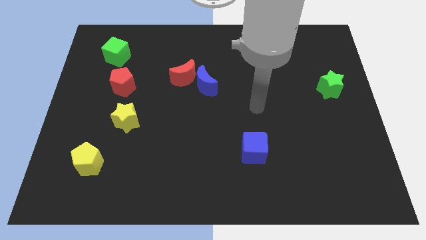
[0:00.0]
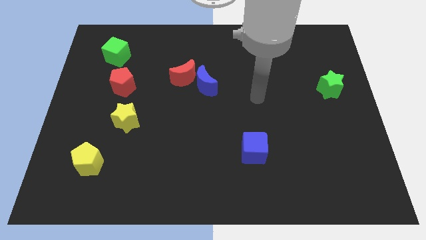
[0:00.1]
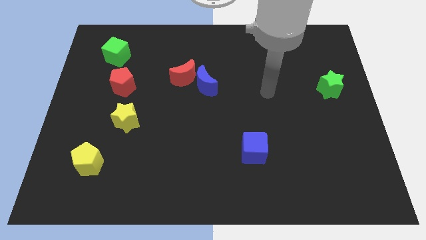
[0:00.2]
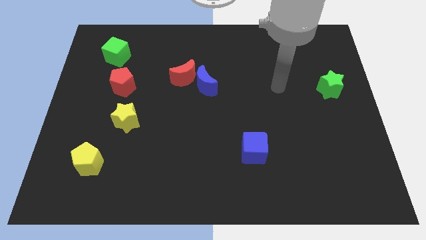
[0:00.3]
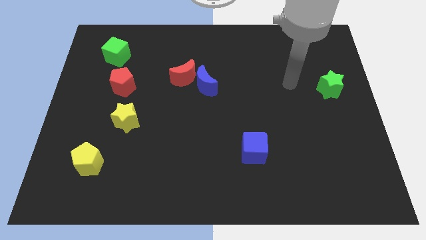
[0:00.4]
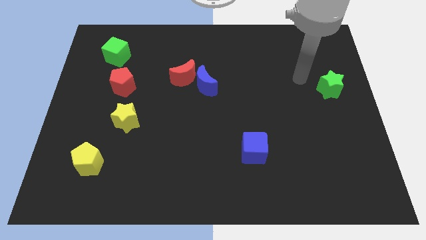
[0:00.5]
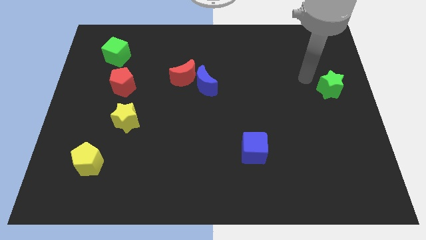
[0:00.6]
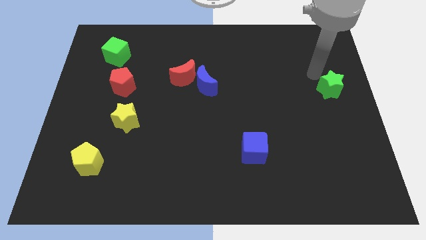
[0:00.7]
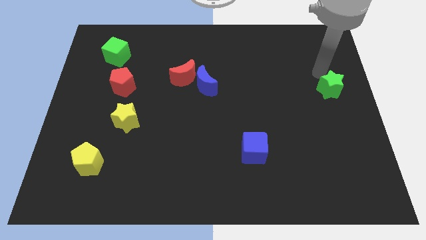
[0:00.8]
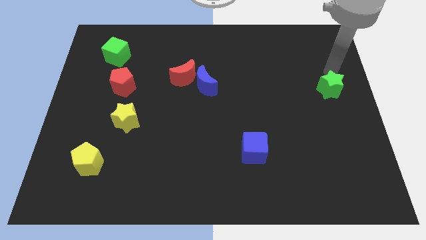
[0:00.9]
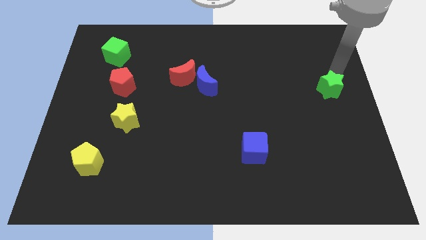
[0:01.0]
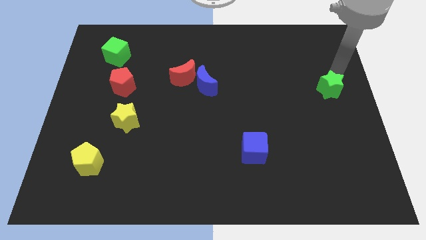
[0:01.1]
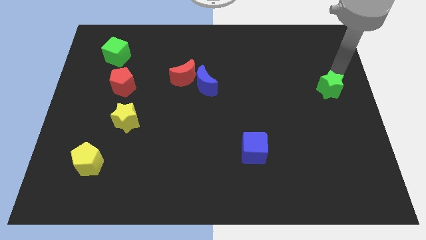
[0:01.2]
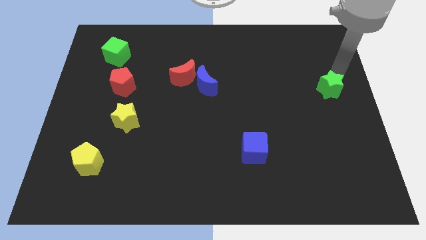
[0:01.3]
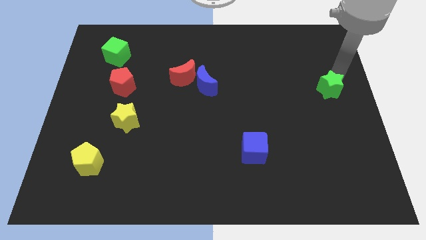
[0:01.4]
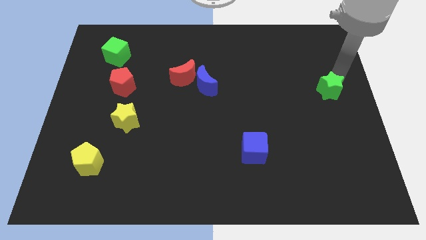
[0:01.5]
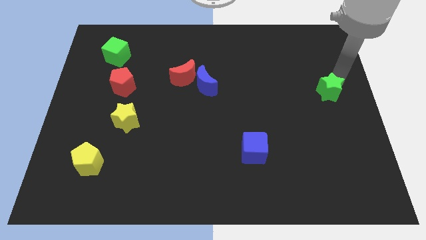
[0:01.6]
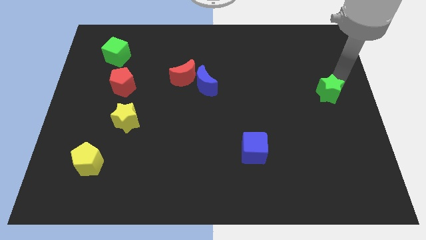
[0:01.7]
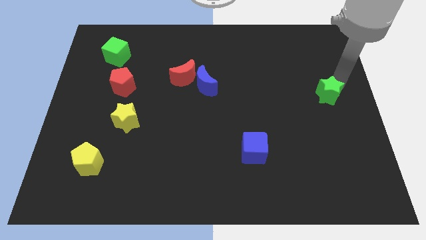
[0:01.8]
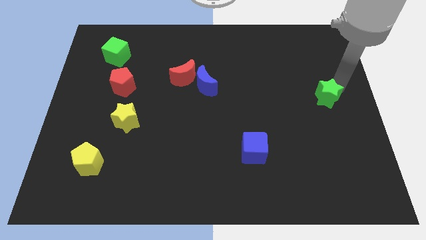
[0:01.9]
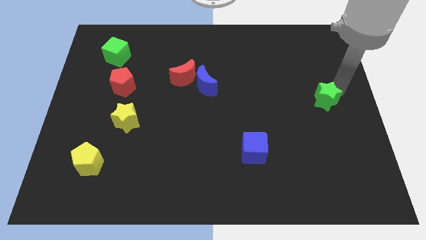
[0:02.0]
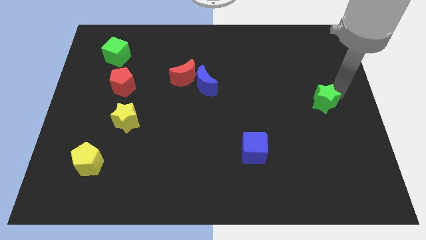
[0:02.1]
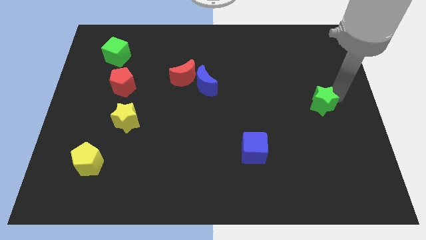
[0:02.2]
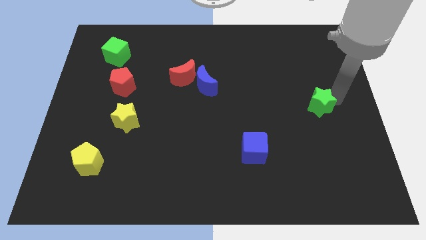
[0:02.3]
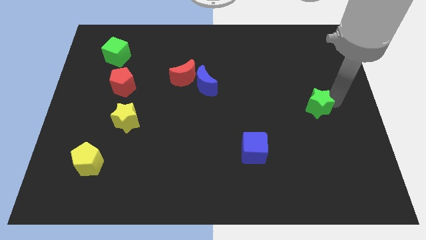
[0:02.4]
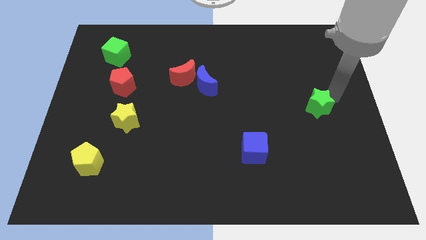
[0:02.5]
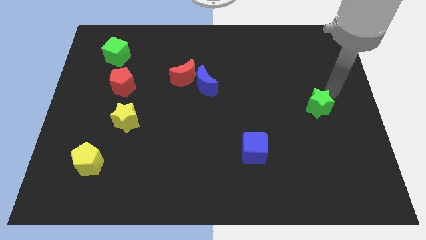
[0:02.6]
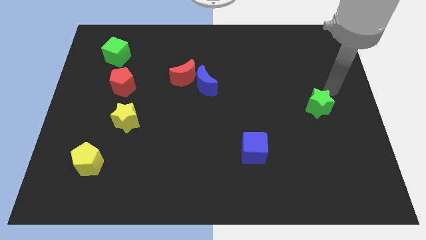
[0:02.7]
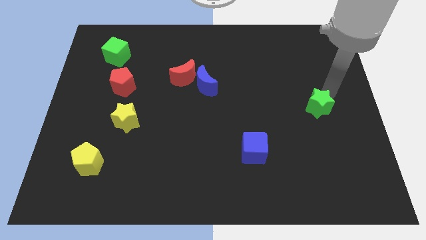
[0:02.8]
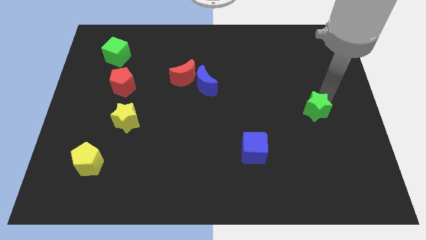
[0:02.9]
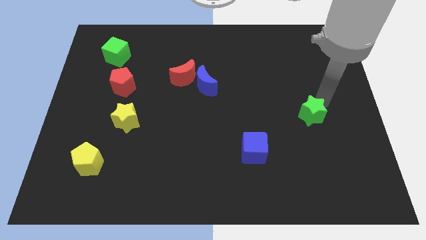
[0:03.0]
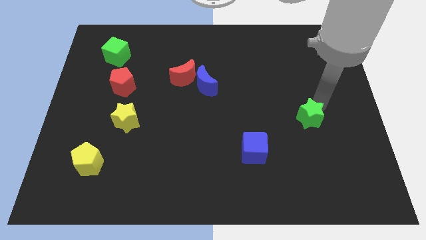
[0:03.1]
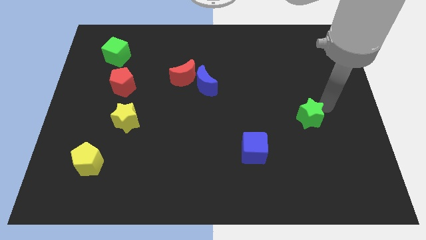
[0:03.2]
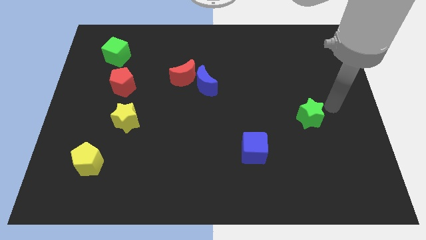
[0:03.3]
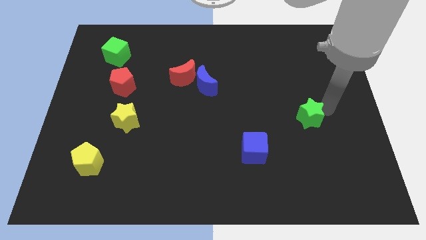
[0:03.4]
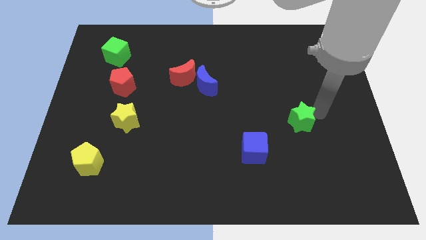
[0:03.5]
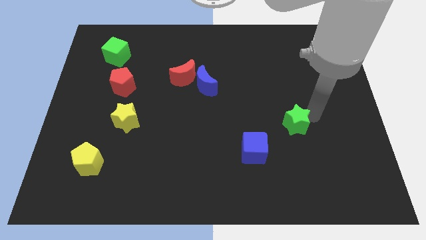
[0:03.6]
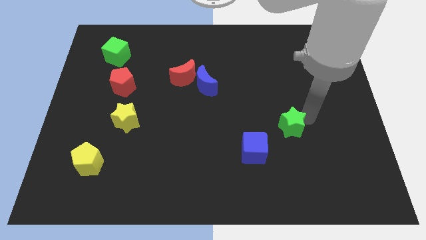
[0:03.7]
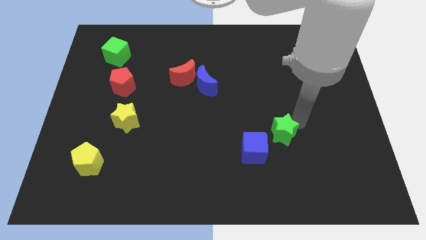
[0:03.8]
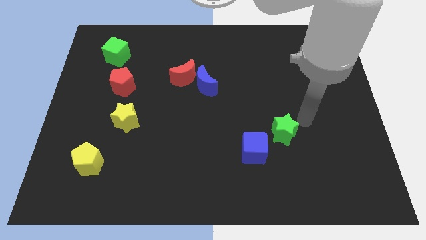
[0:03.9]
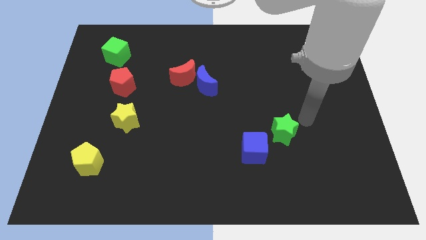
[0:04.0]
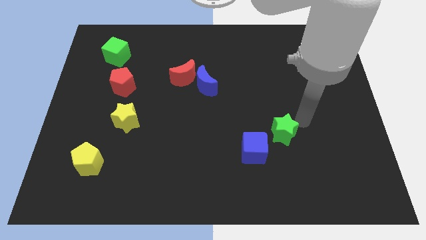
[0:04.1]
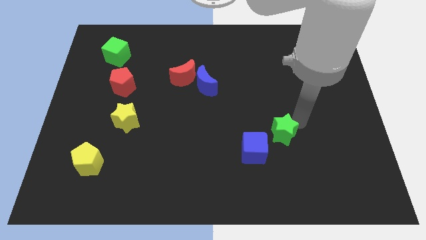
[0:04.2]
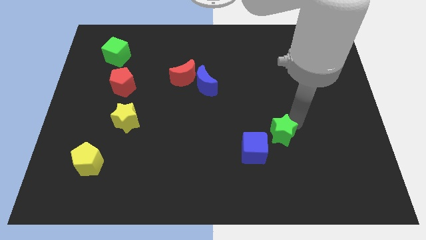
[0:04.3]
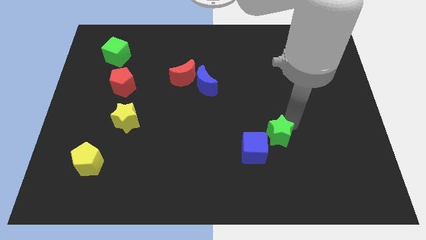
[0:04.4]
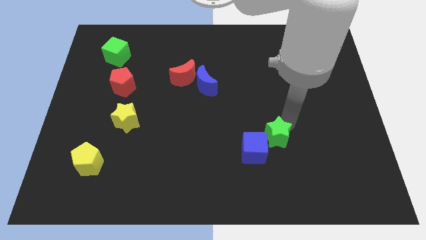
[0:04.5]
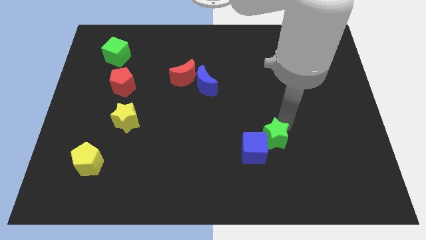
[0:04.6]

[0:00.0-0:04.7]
move the green star next to the blue cube

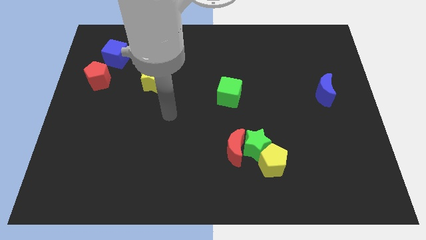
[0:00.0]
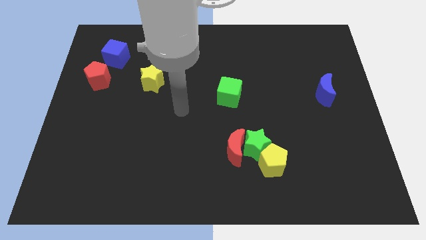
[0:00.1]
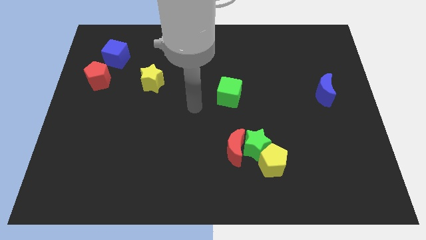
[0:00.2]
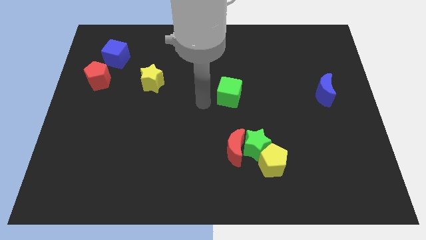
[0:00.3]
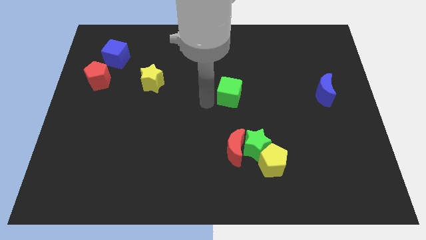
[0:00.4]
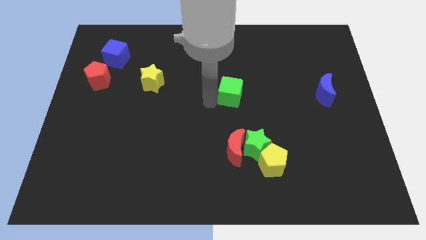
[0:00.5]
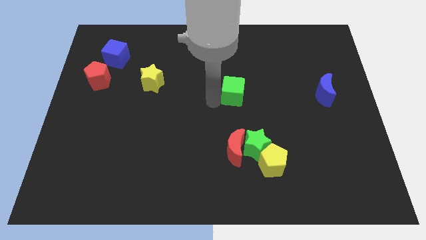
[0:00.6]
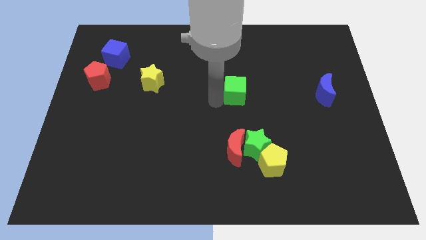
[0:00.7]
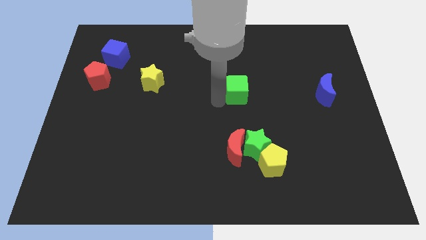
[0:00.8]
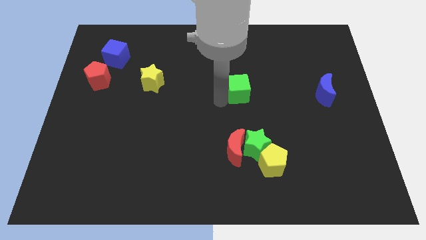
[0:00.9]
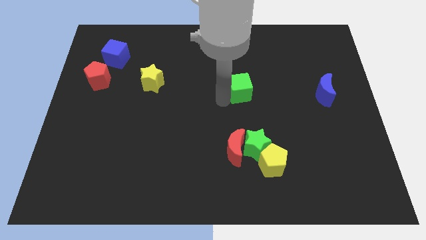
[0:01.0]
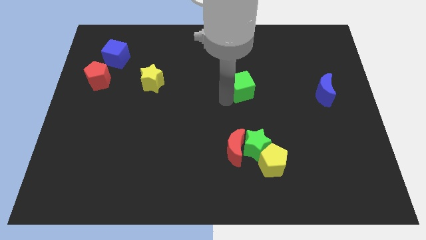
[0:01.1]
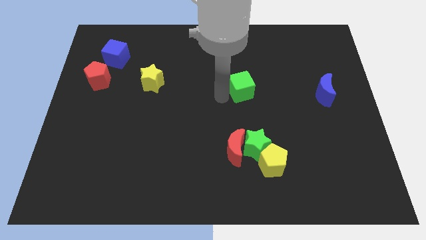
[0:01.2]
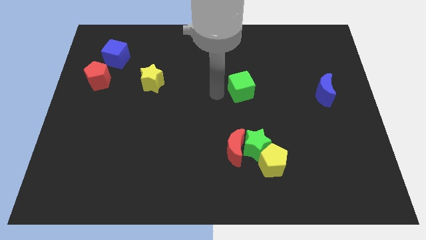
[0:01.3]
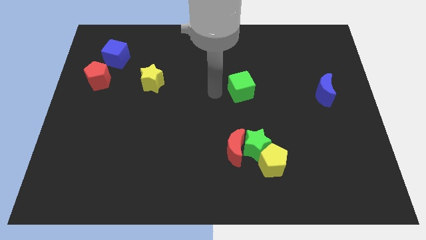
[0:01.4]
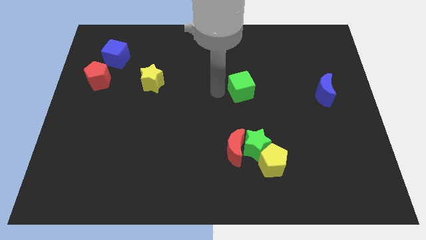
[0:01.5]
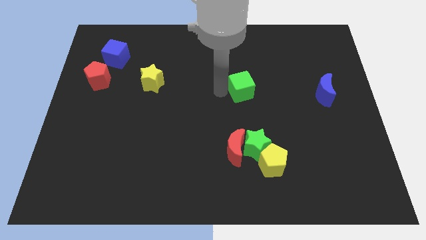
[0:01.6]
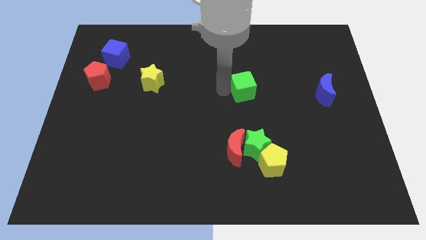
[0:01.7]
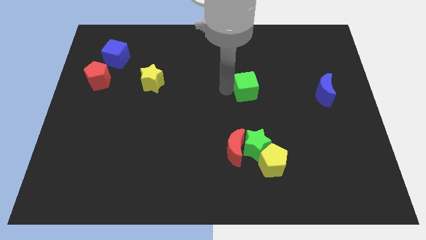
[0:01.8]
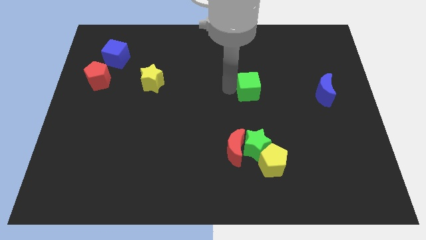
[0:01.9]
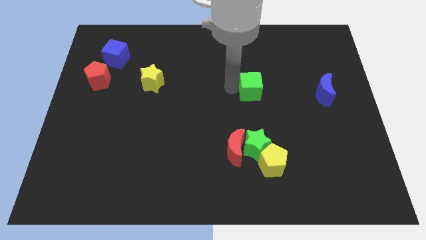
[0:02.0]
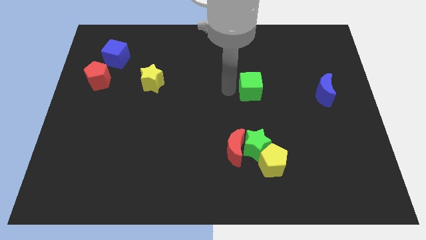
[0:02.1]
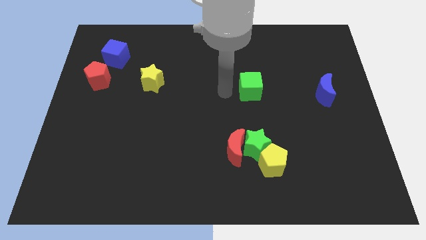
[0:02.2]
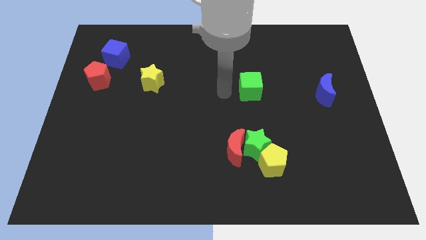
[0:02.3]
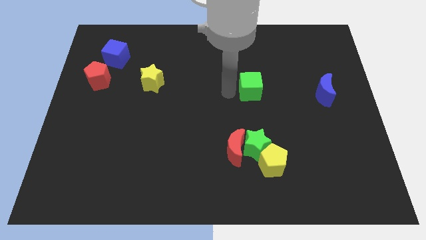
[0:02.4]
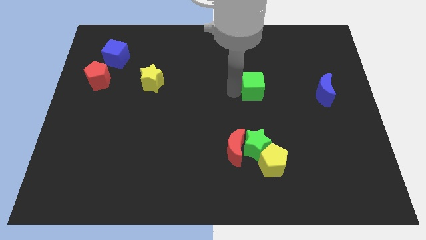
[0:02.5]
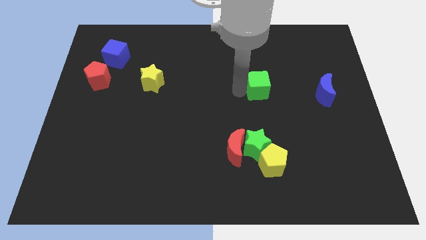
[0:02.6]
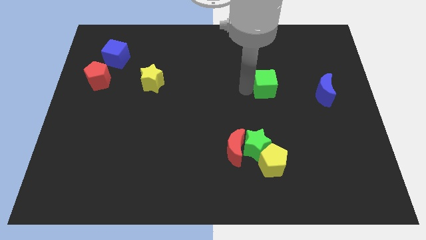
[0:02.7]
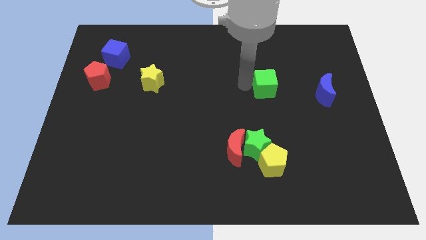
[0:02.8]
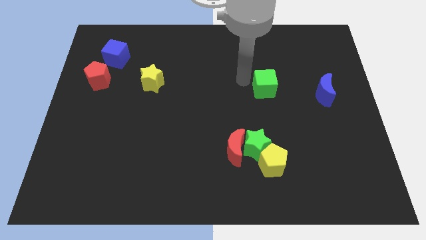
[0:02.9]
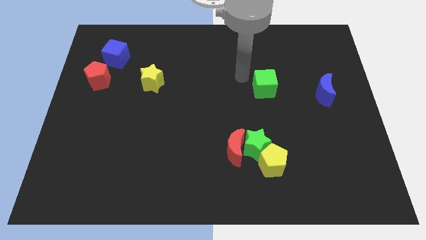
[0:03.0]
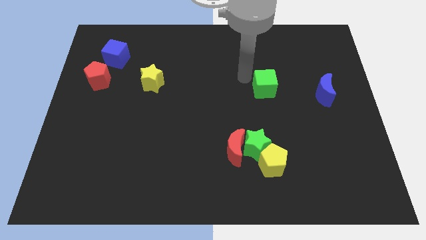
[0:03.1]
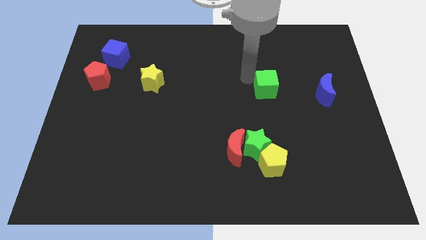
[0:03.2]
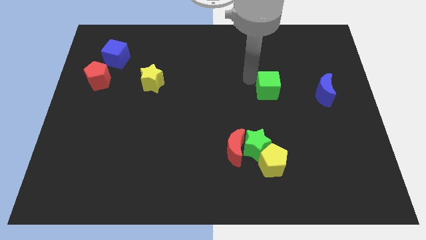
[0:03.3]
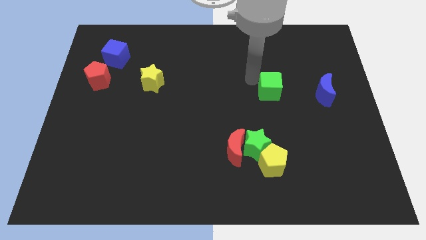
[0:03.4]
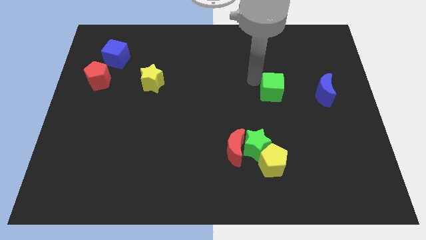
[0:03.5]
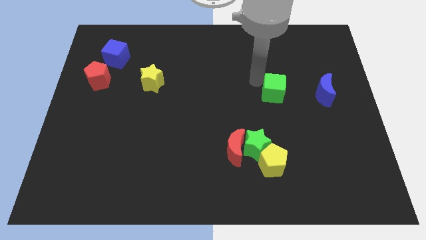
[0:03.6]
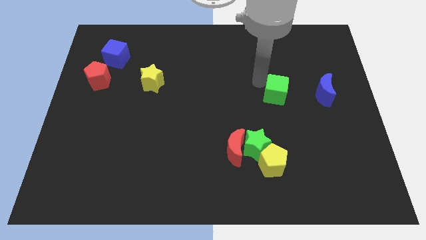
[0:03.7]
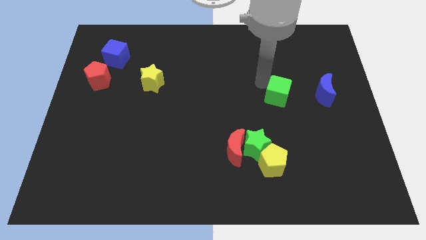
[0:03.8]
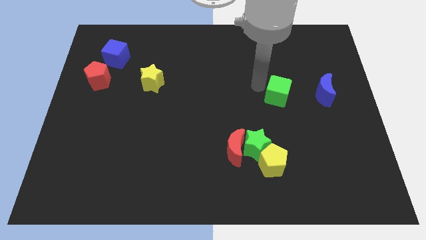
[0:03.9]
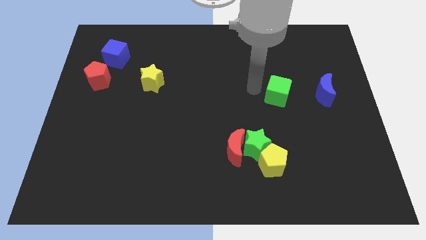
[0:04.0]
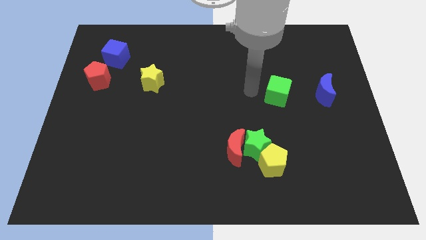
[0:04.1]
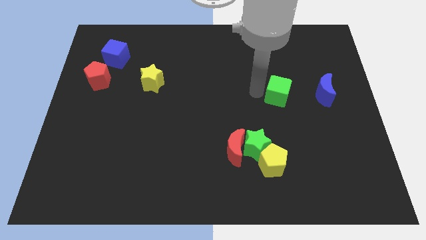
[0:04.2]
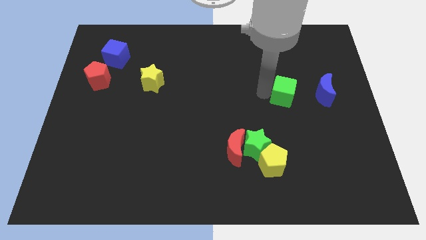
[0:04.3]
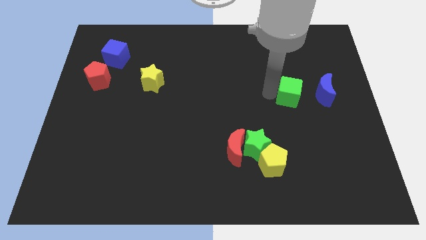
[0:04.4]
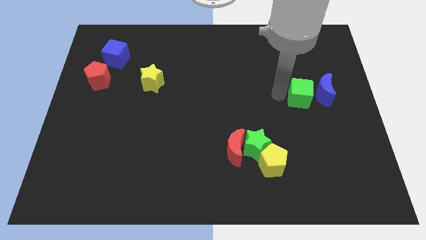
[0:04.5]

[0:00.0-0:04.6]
move the green cube to the blue moon
